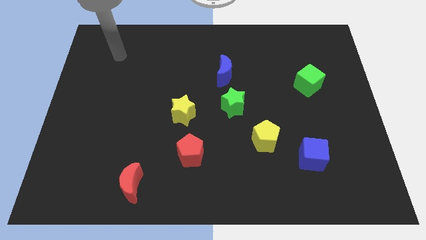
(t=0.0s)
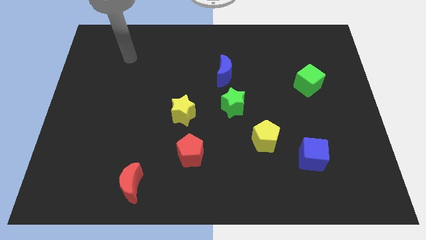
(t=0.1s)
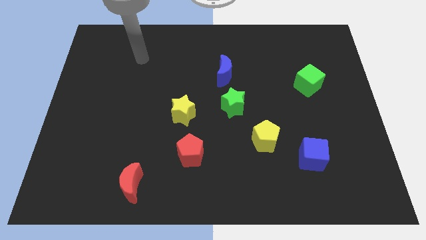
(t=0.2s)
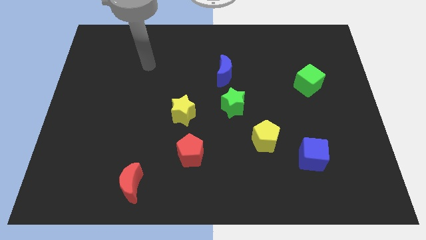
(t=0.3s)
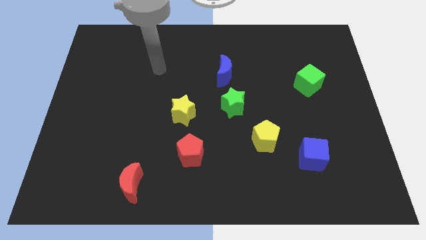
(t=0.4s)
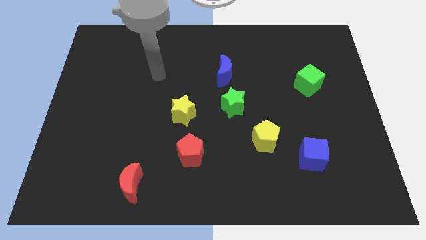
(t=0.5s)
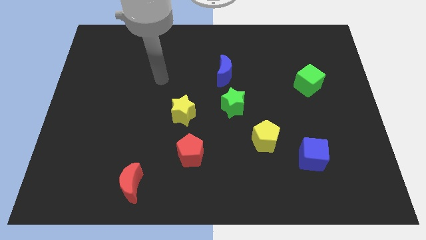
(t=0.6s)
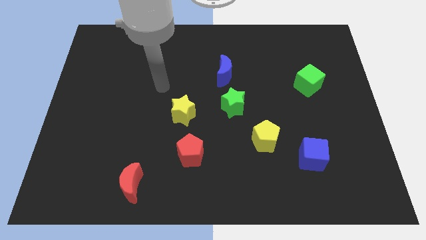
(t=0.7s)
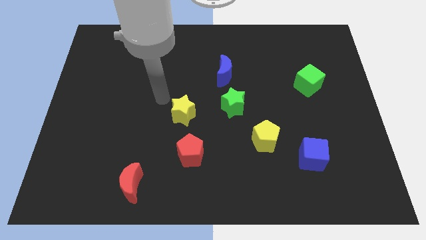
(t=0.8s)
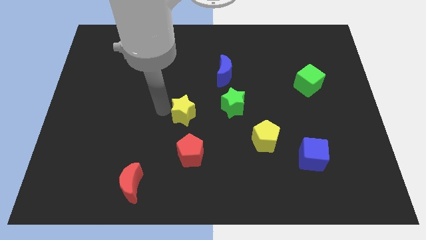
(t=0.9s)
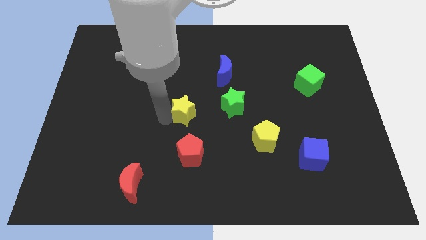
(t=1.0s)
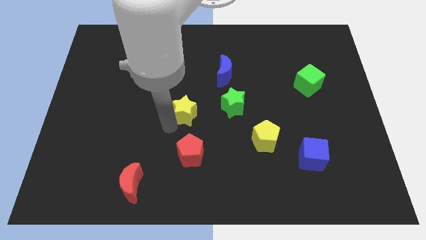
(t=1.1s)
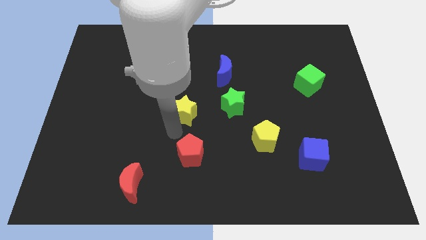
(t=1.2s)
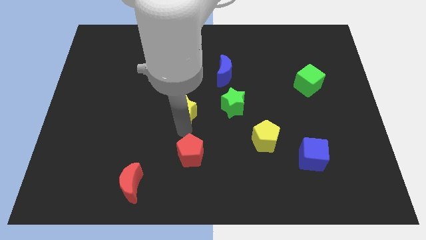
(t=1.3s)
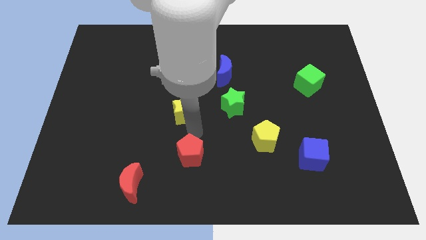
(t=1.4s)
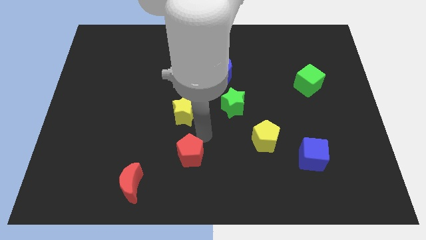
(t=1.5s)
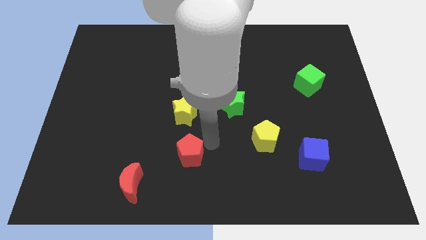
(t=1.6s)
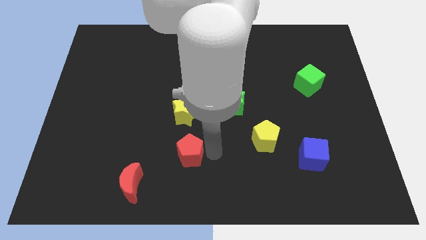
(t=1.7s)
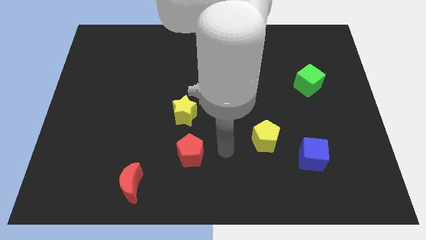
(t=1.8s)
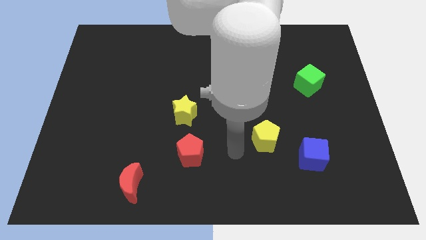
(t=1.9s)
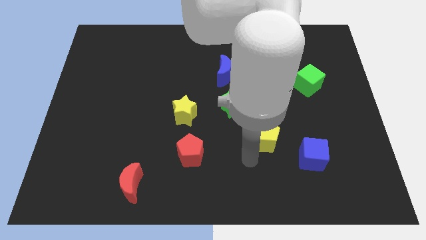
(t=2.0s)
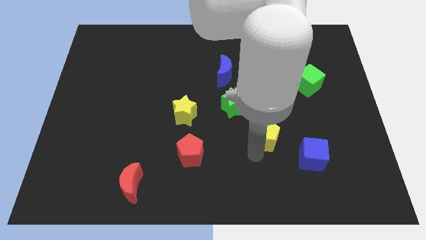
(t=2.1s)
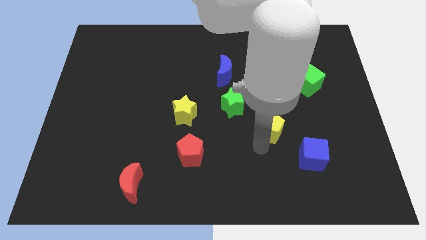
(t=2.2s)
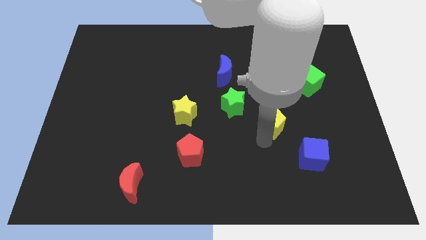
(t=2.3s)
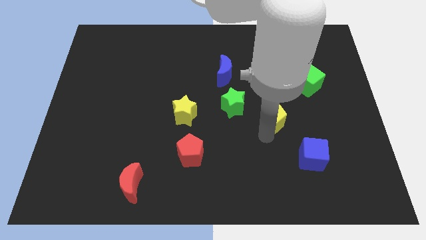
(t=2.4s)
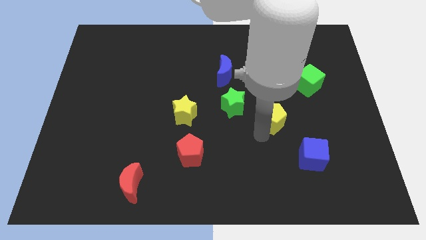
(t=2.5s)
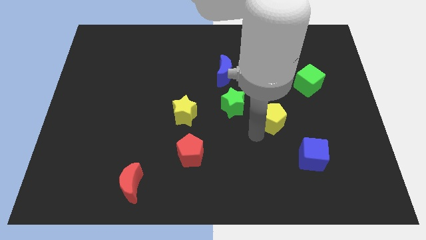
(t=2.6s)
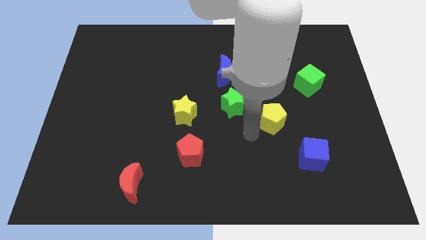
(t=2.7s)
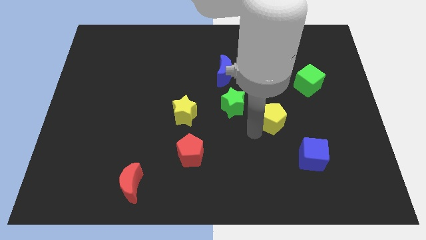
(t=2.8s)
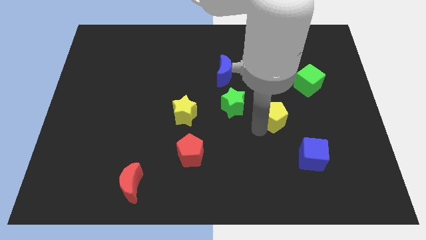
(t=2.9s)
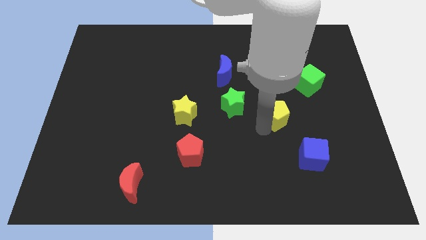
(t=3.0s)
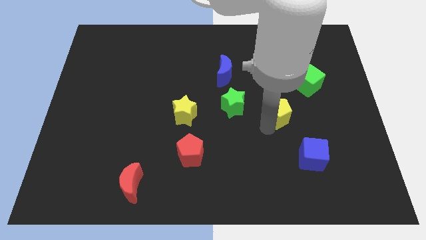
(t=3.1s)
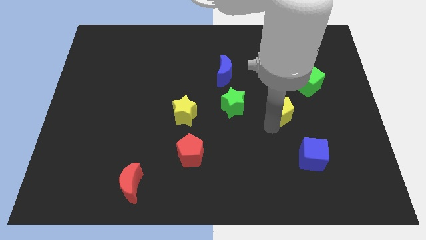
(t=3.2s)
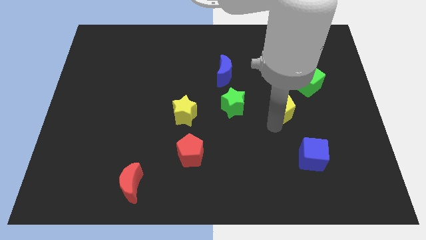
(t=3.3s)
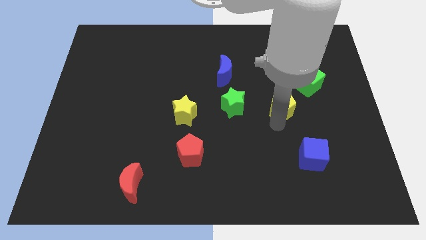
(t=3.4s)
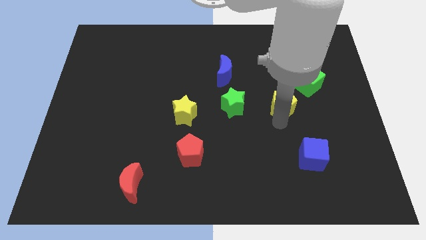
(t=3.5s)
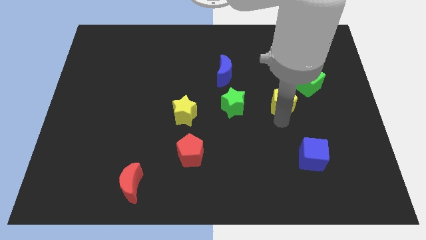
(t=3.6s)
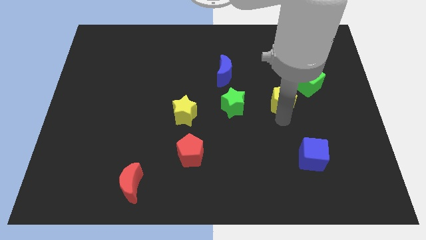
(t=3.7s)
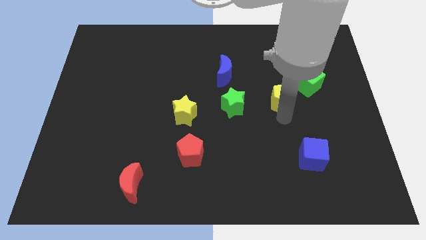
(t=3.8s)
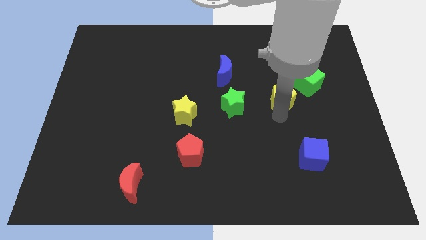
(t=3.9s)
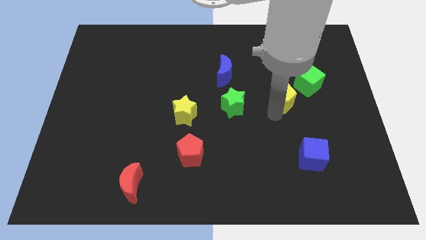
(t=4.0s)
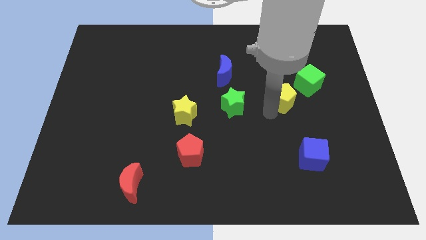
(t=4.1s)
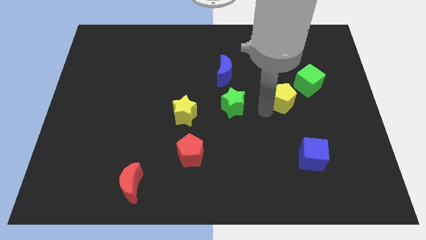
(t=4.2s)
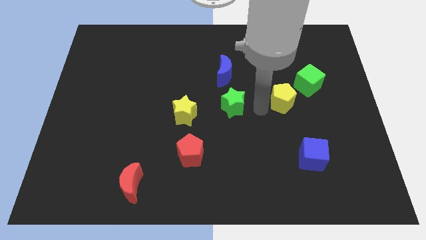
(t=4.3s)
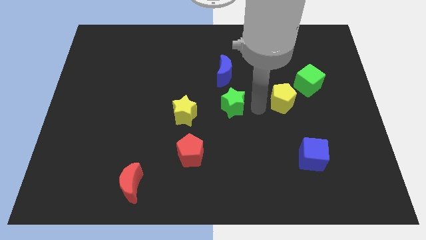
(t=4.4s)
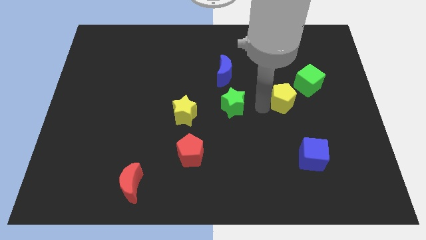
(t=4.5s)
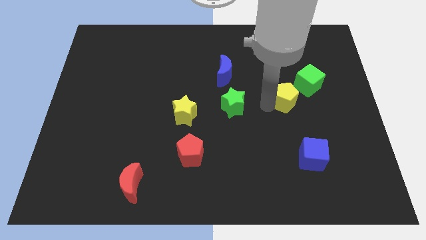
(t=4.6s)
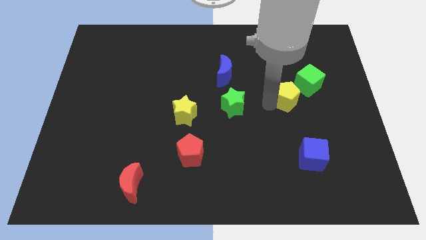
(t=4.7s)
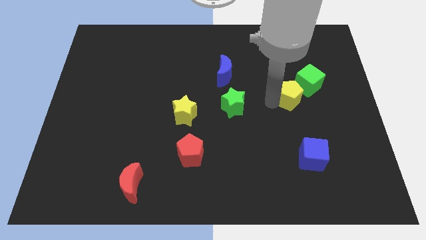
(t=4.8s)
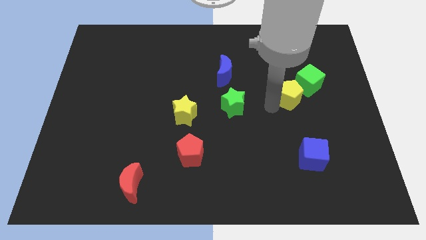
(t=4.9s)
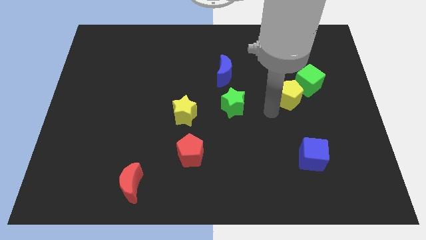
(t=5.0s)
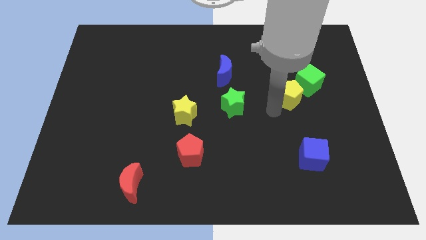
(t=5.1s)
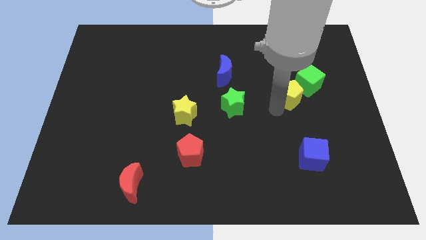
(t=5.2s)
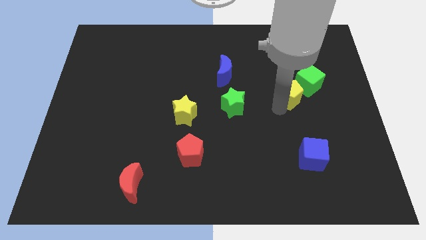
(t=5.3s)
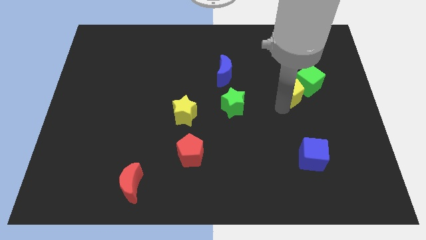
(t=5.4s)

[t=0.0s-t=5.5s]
move the yellow pentagon towards the green cube

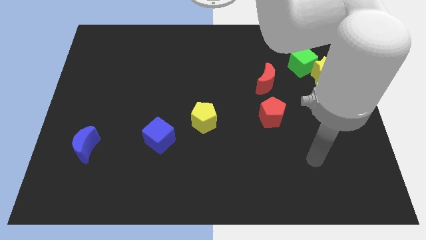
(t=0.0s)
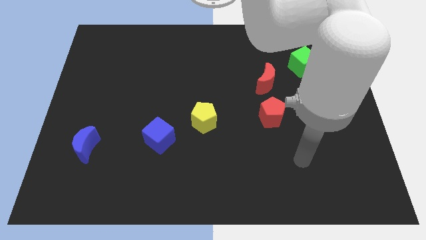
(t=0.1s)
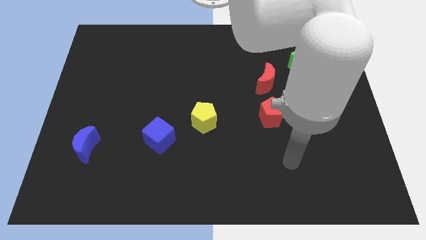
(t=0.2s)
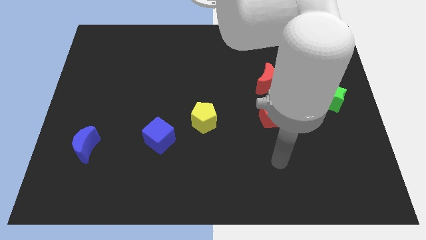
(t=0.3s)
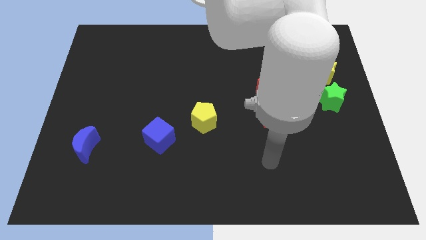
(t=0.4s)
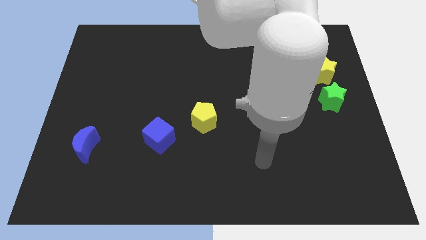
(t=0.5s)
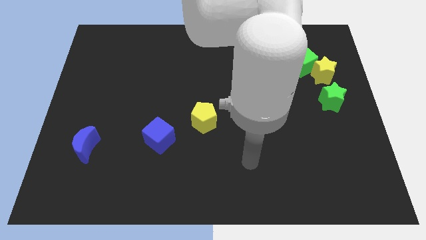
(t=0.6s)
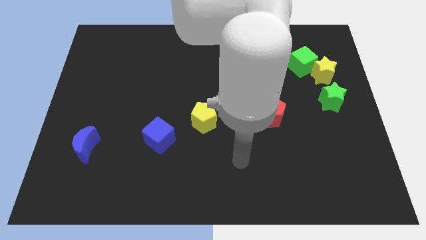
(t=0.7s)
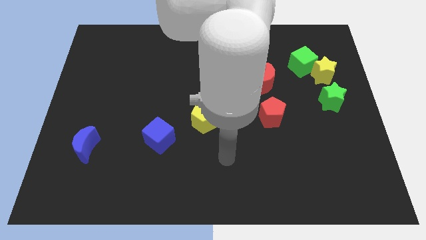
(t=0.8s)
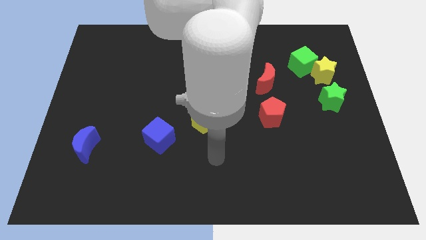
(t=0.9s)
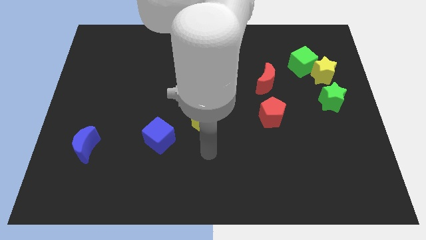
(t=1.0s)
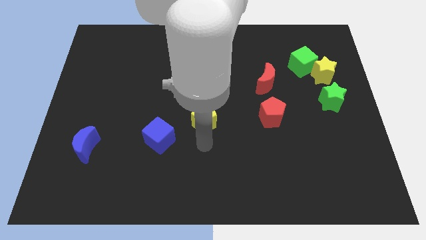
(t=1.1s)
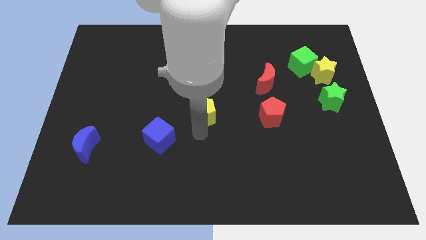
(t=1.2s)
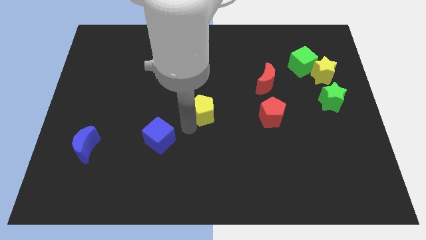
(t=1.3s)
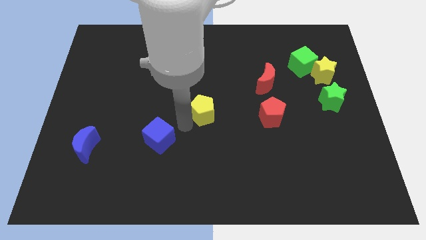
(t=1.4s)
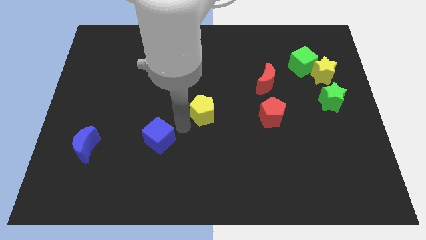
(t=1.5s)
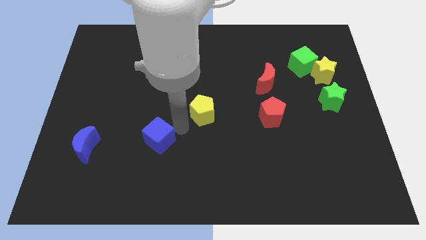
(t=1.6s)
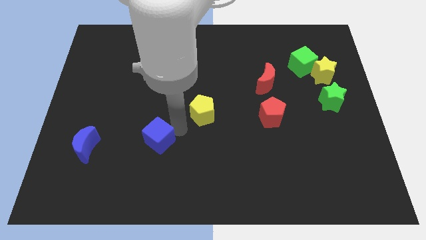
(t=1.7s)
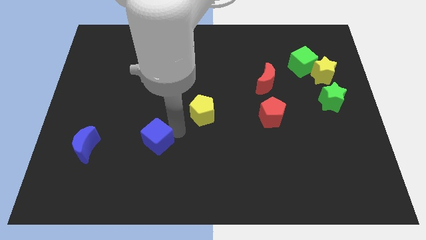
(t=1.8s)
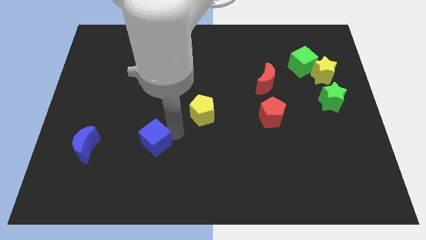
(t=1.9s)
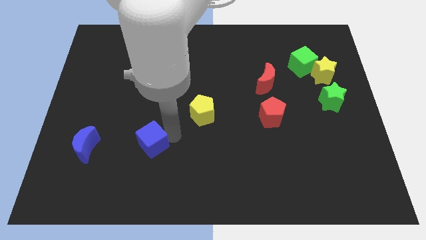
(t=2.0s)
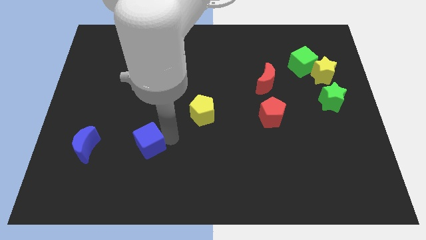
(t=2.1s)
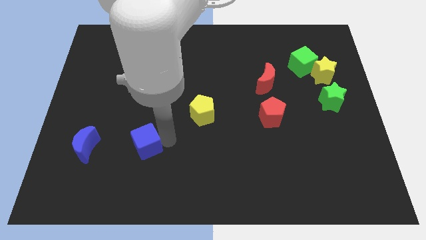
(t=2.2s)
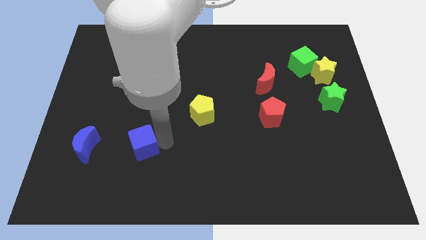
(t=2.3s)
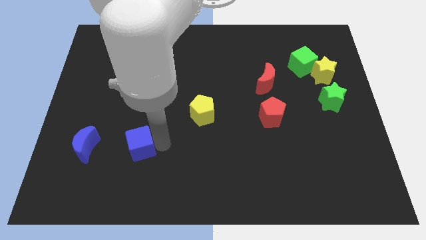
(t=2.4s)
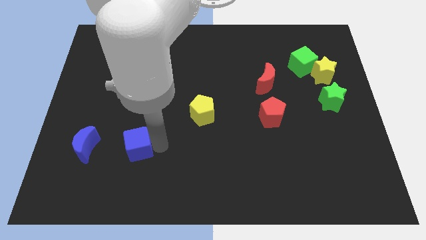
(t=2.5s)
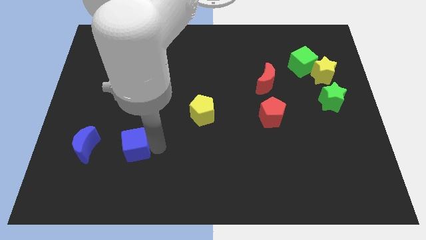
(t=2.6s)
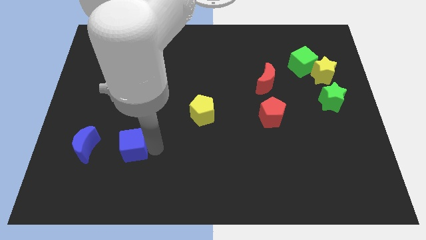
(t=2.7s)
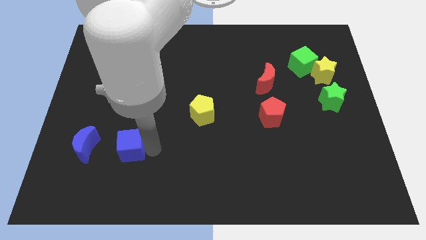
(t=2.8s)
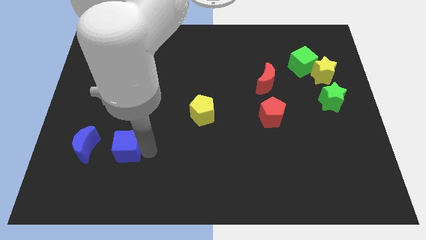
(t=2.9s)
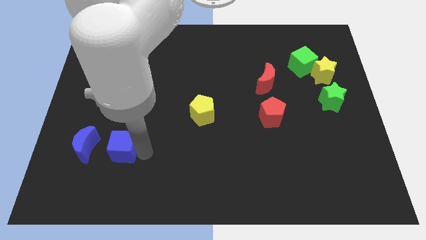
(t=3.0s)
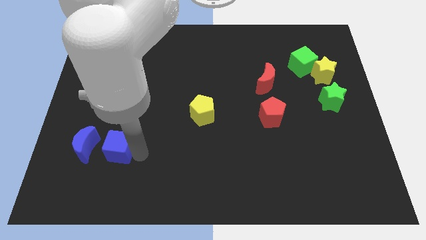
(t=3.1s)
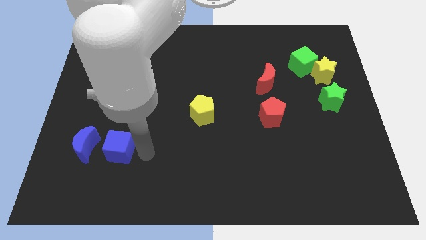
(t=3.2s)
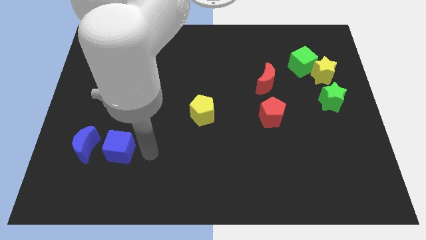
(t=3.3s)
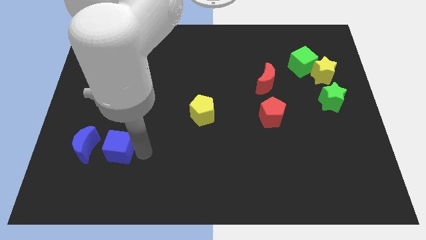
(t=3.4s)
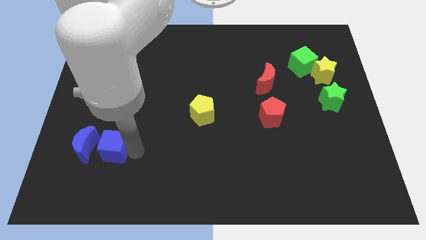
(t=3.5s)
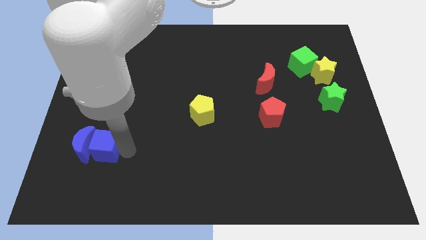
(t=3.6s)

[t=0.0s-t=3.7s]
put the blue cube to the blue moon
